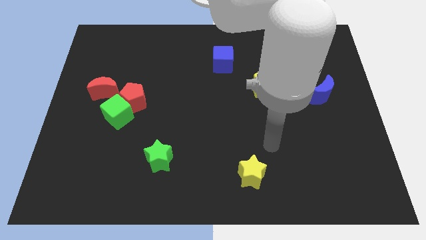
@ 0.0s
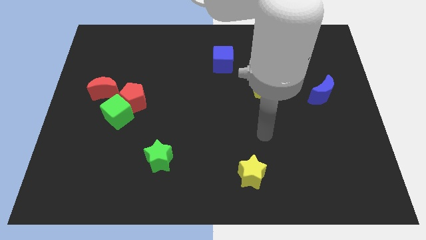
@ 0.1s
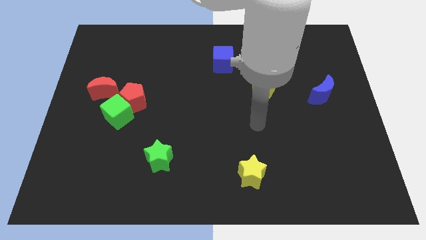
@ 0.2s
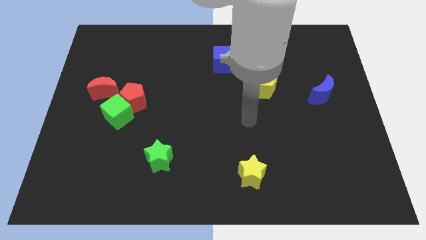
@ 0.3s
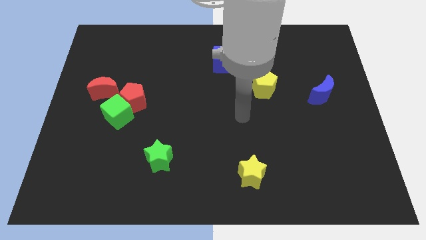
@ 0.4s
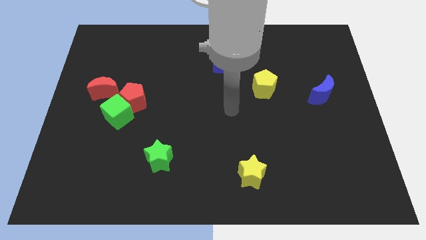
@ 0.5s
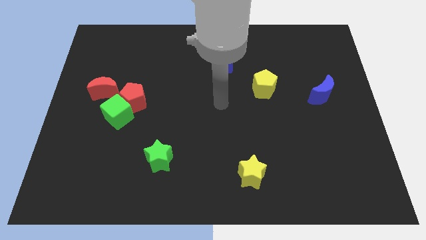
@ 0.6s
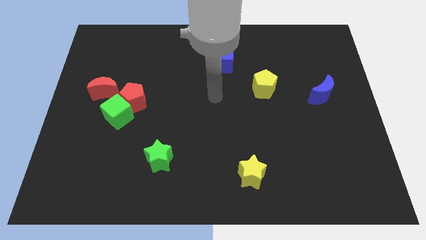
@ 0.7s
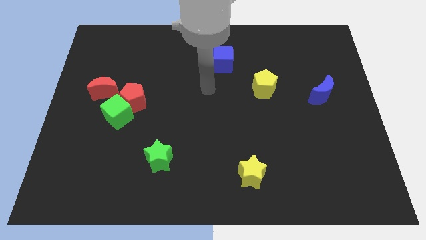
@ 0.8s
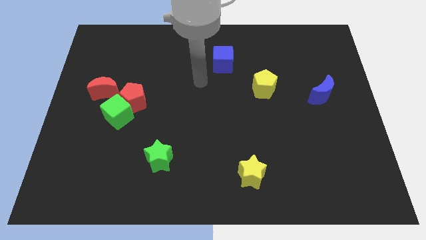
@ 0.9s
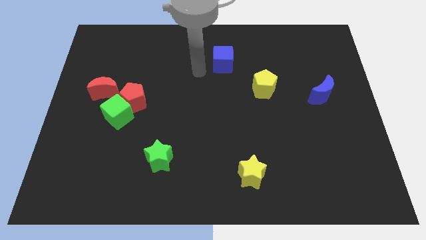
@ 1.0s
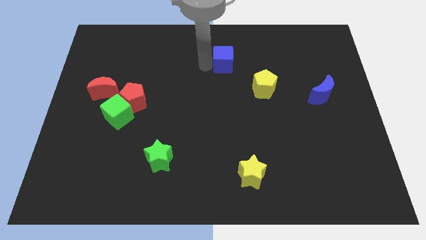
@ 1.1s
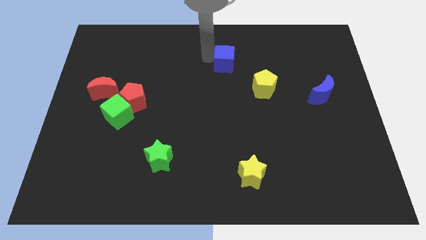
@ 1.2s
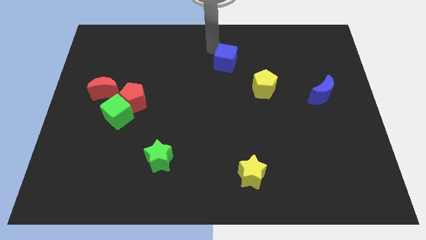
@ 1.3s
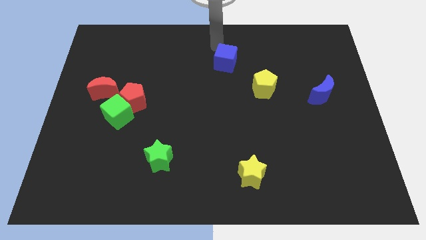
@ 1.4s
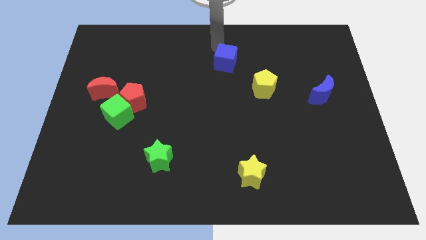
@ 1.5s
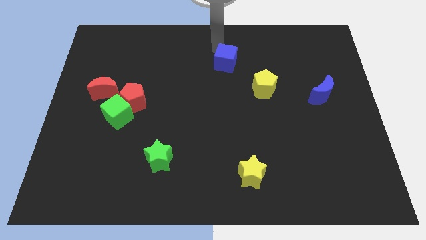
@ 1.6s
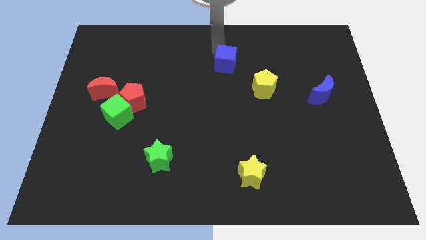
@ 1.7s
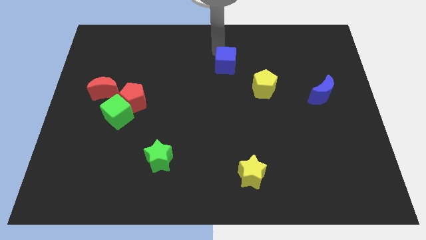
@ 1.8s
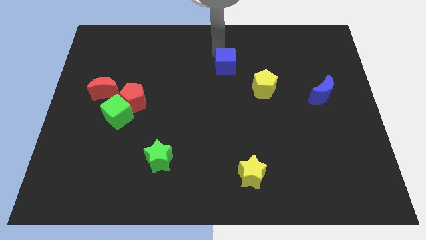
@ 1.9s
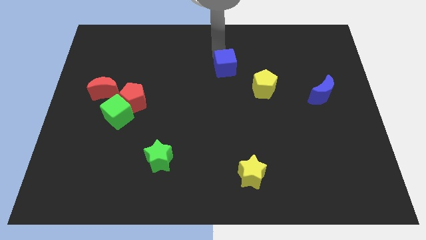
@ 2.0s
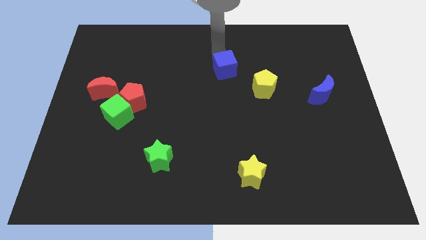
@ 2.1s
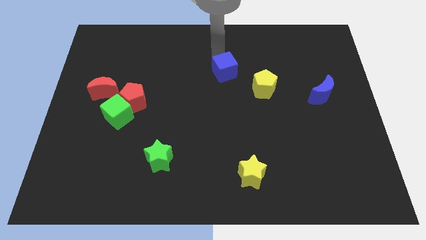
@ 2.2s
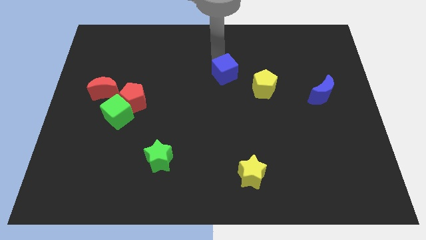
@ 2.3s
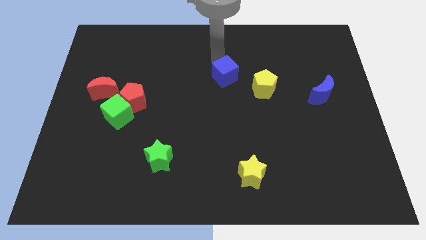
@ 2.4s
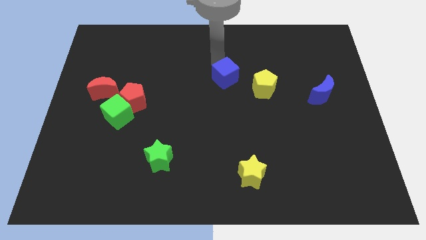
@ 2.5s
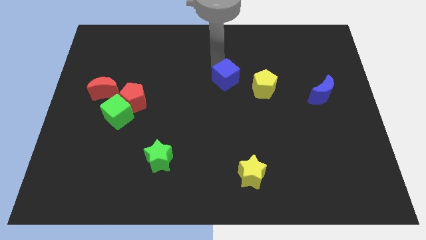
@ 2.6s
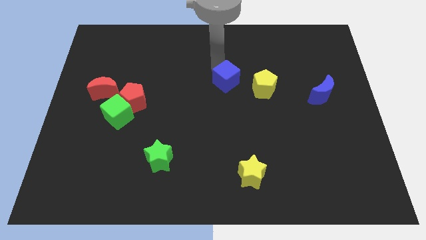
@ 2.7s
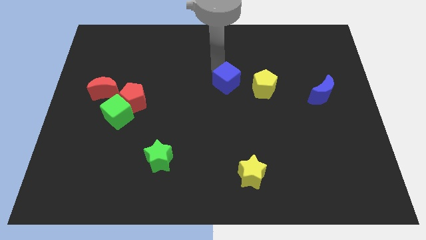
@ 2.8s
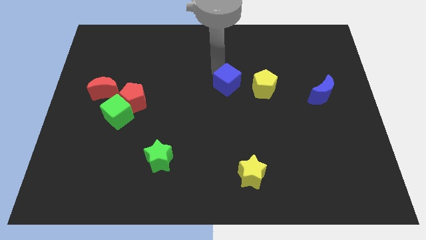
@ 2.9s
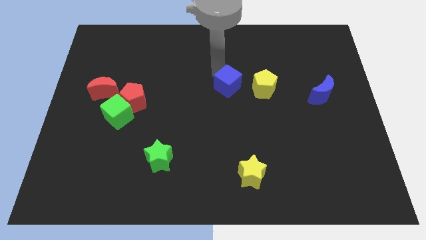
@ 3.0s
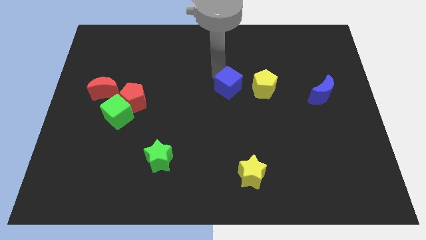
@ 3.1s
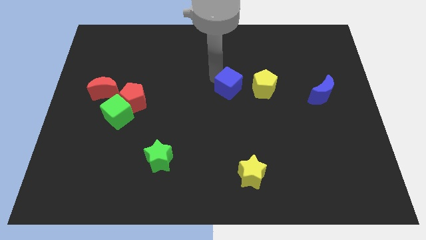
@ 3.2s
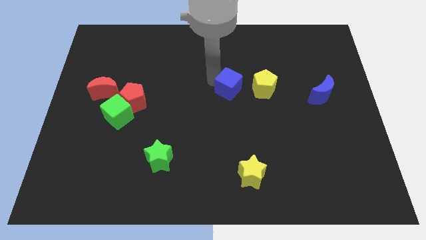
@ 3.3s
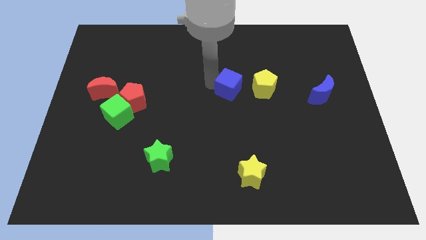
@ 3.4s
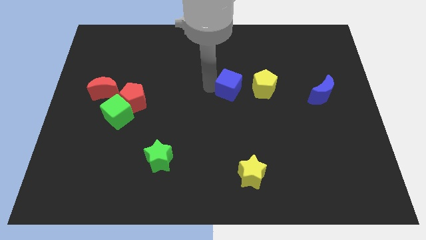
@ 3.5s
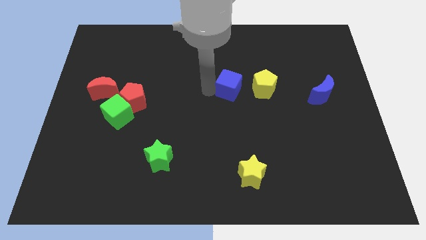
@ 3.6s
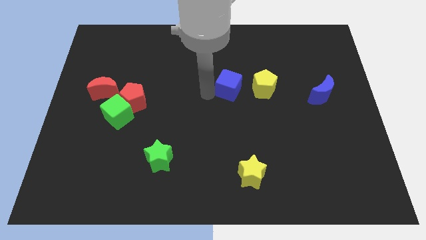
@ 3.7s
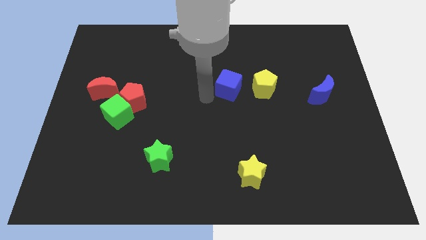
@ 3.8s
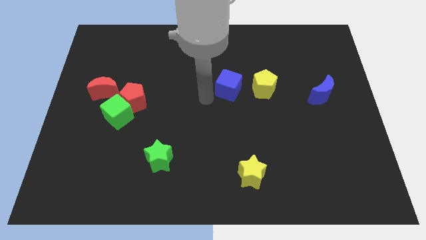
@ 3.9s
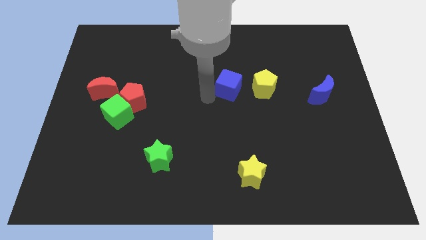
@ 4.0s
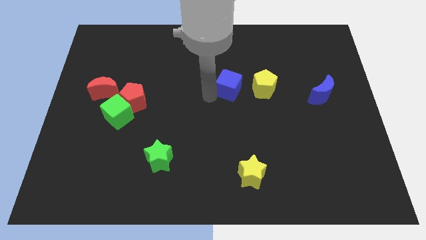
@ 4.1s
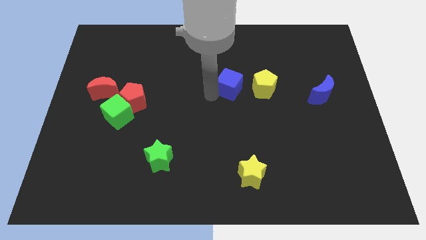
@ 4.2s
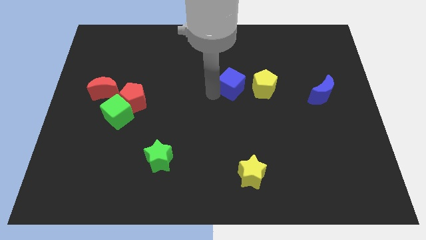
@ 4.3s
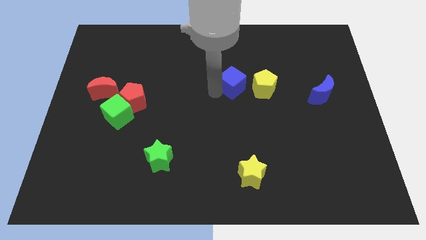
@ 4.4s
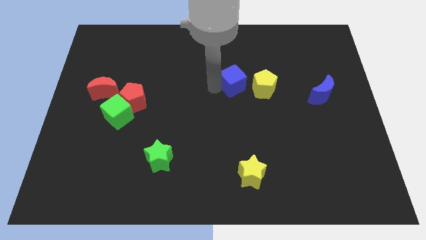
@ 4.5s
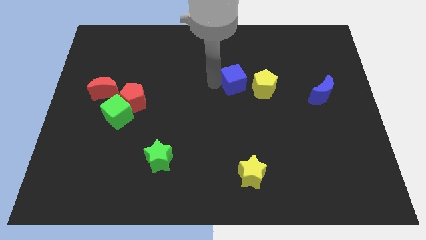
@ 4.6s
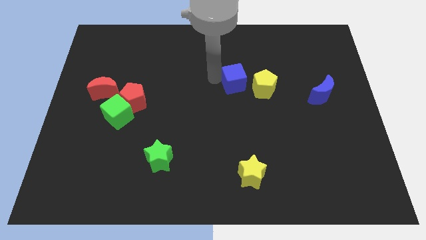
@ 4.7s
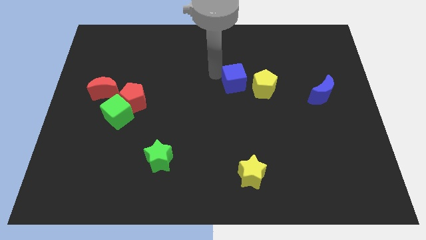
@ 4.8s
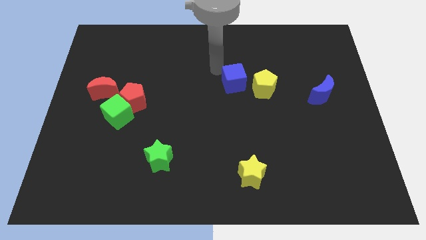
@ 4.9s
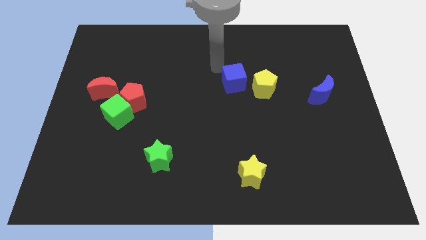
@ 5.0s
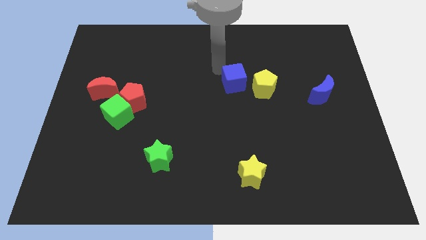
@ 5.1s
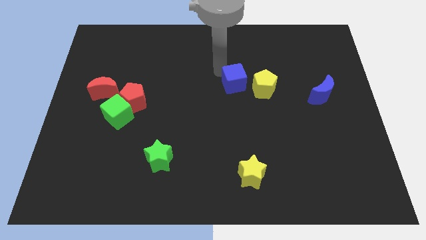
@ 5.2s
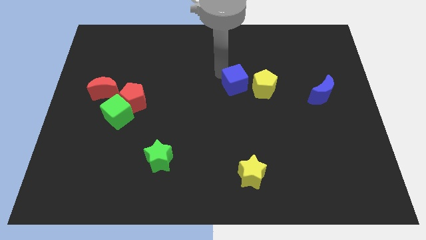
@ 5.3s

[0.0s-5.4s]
push the blue cube diagonally downwards and right somewhat

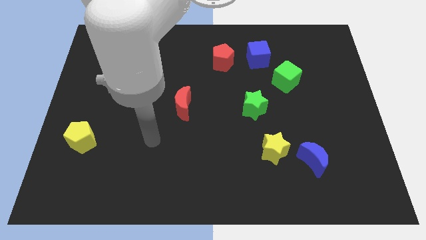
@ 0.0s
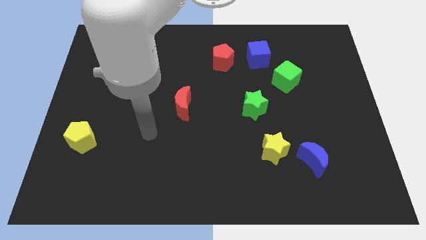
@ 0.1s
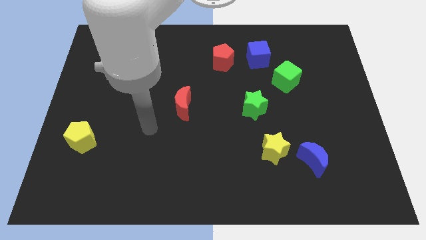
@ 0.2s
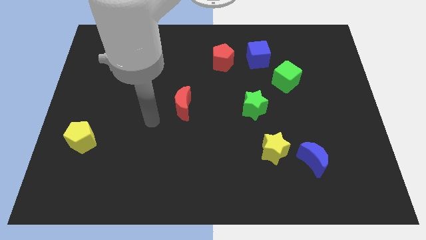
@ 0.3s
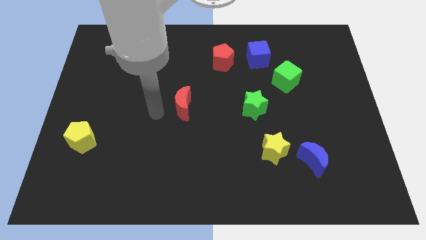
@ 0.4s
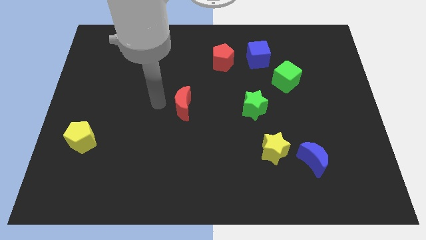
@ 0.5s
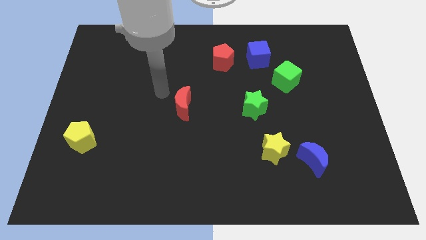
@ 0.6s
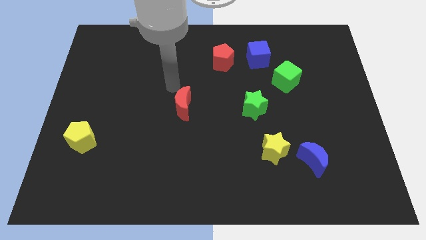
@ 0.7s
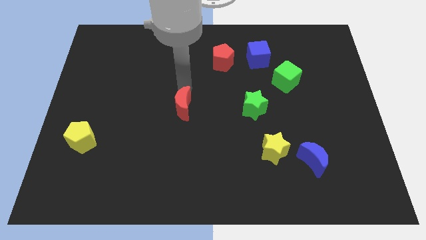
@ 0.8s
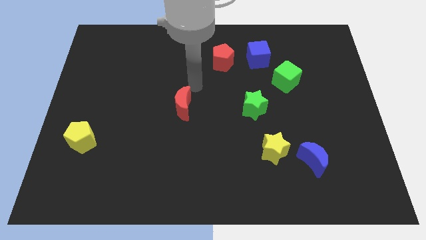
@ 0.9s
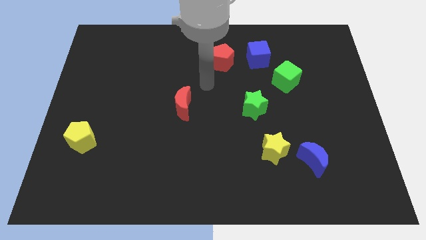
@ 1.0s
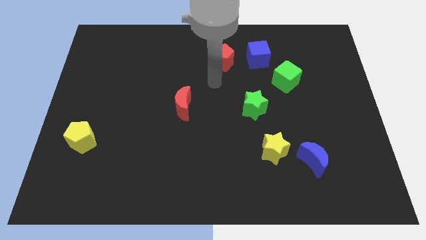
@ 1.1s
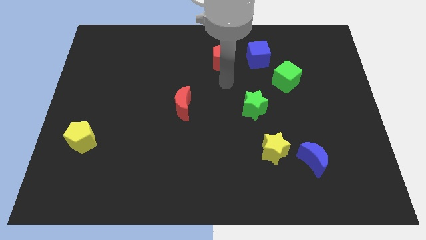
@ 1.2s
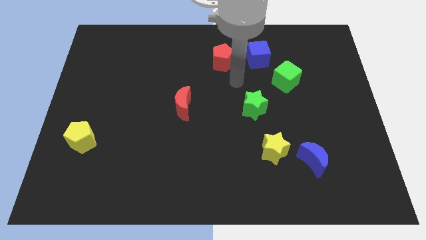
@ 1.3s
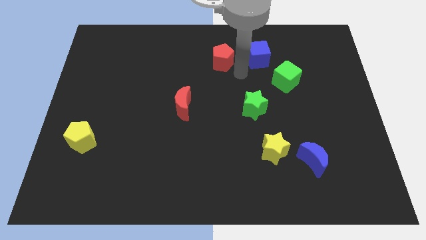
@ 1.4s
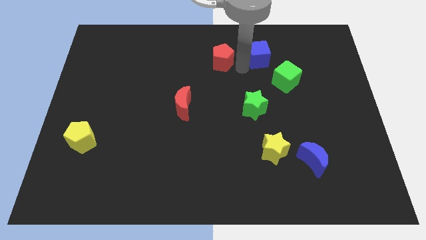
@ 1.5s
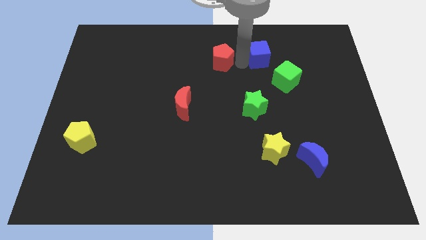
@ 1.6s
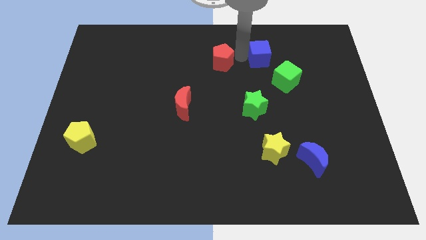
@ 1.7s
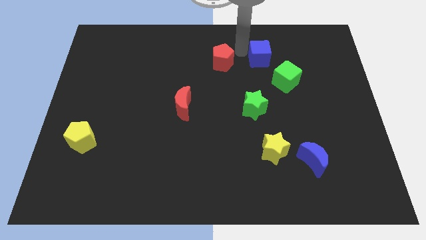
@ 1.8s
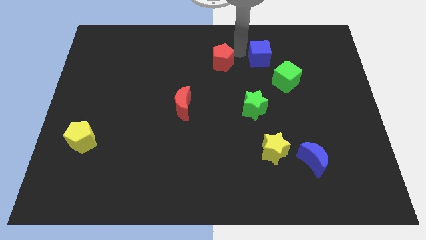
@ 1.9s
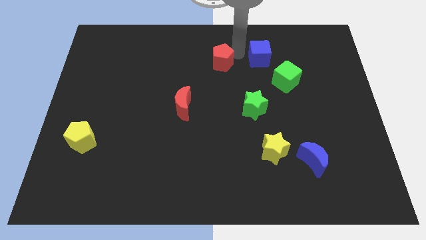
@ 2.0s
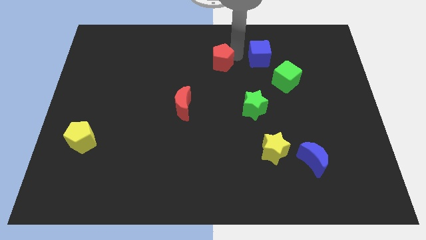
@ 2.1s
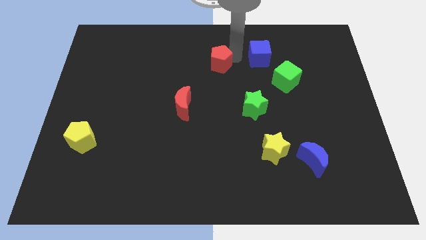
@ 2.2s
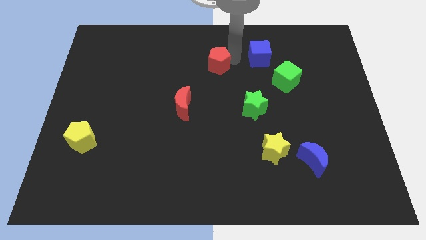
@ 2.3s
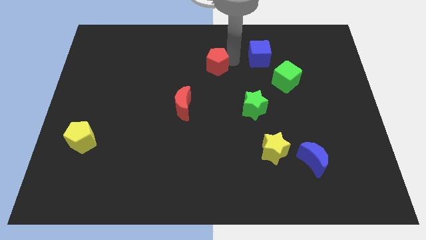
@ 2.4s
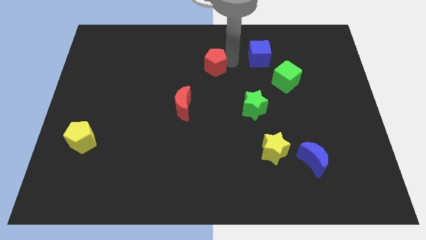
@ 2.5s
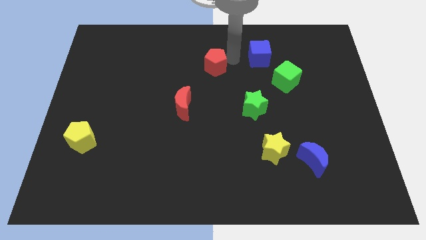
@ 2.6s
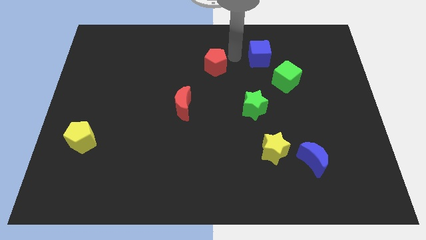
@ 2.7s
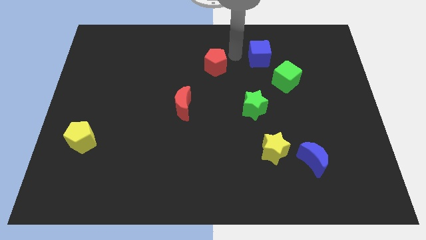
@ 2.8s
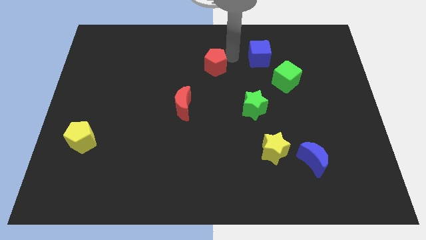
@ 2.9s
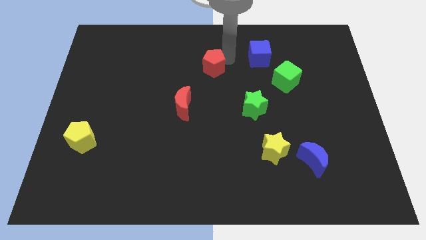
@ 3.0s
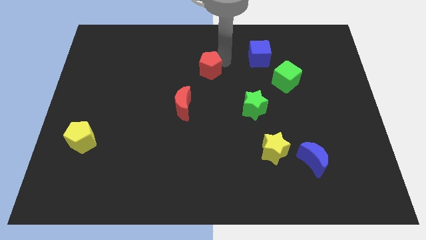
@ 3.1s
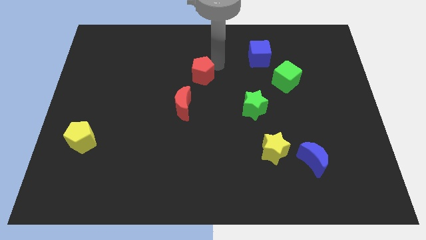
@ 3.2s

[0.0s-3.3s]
move the red pentagon diagonally down and left a little
